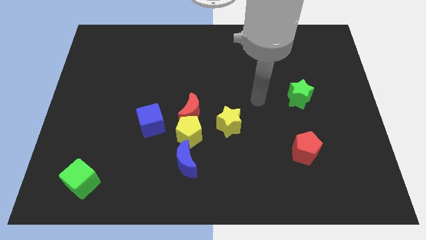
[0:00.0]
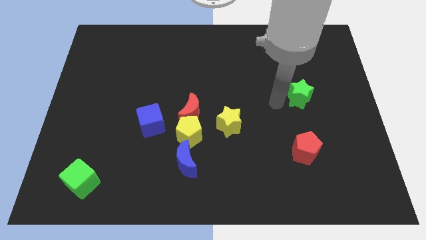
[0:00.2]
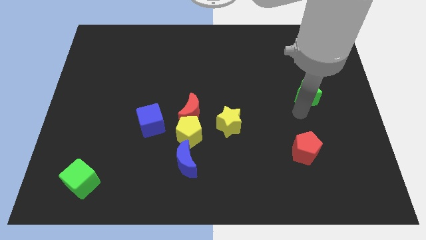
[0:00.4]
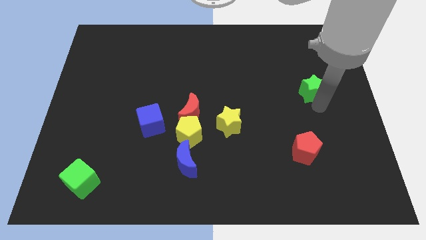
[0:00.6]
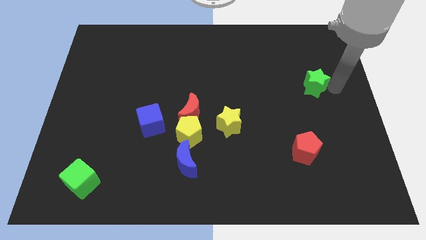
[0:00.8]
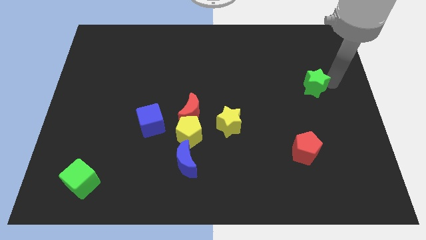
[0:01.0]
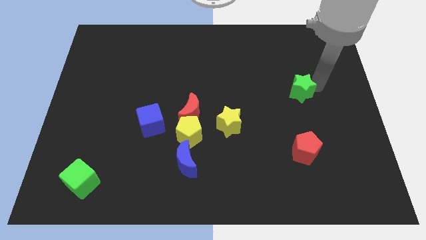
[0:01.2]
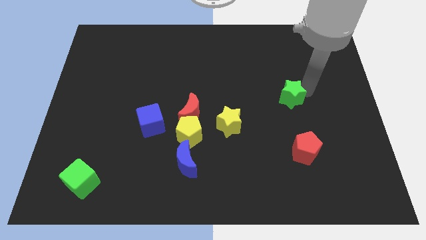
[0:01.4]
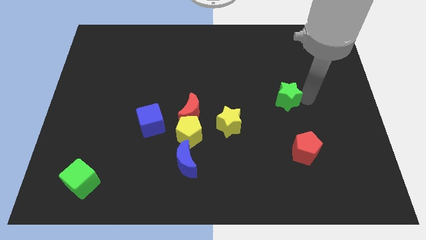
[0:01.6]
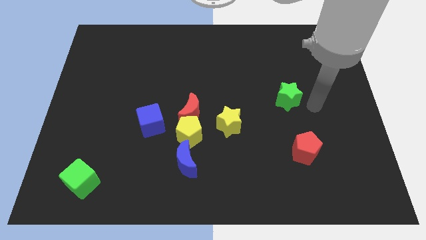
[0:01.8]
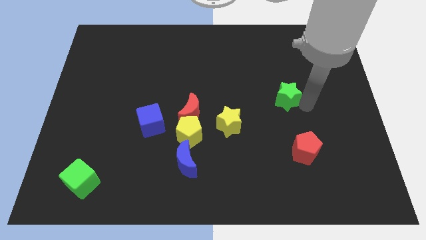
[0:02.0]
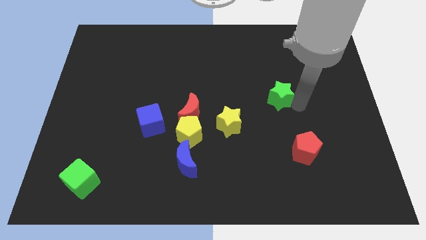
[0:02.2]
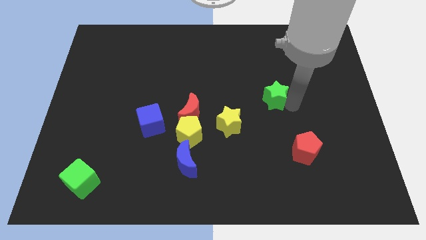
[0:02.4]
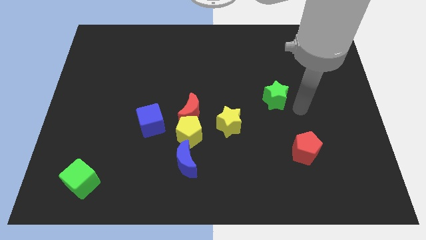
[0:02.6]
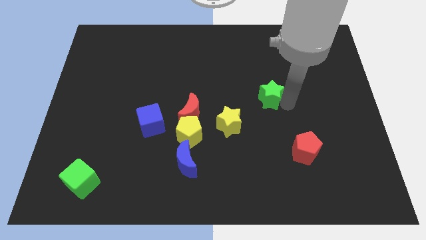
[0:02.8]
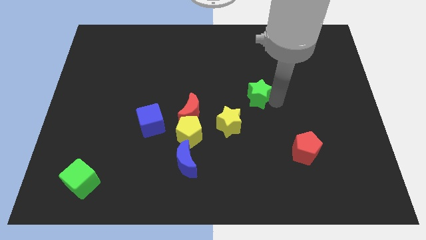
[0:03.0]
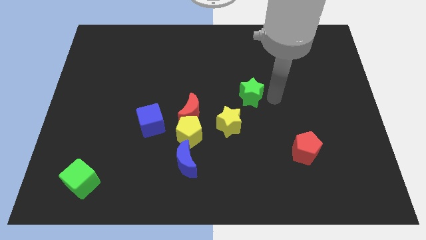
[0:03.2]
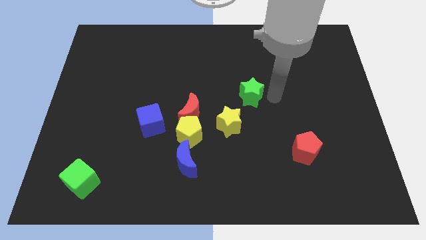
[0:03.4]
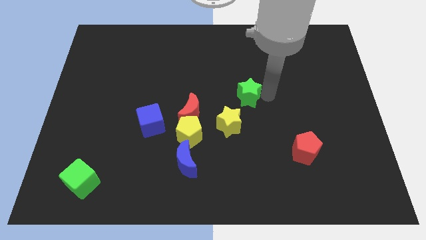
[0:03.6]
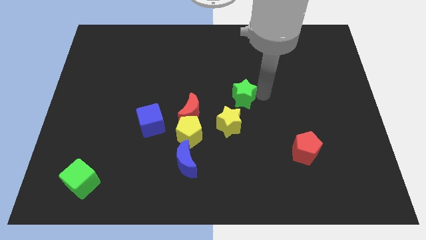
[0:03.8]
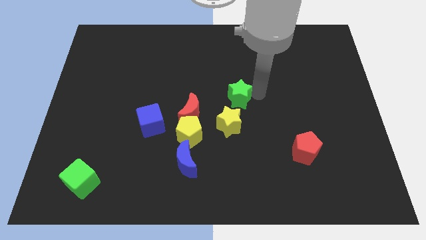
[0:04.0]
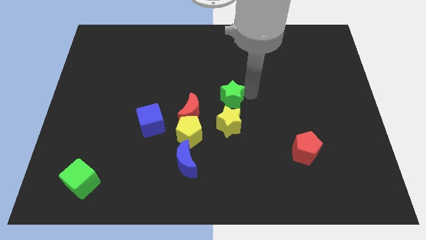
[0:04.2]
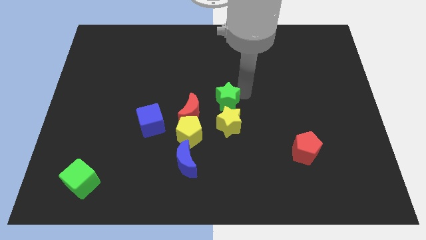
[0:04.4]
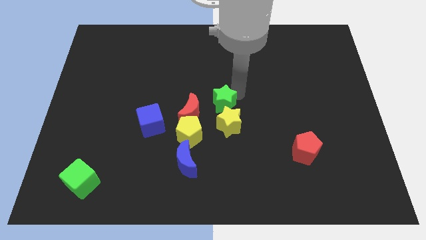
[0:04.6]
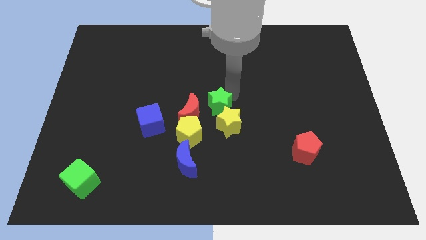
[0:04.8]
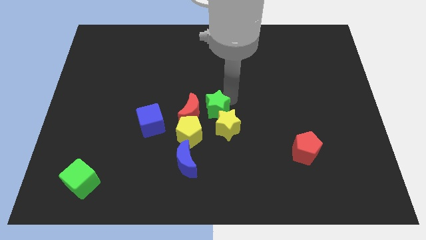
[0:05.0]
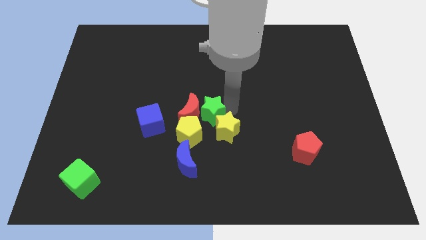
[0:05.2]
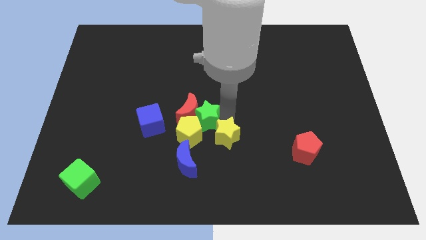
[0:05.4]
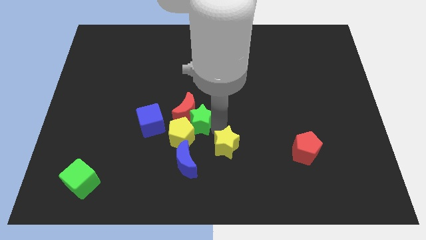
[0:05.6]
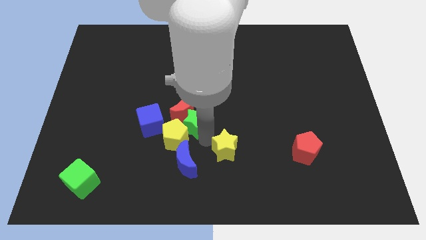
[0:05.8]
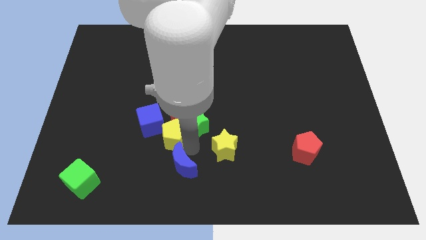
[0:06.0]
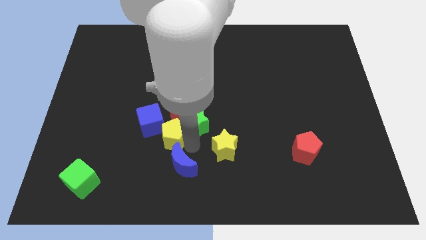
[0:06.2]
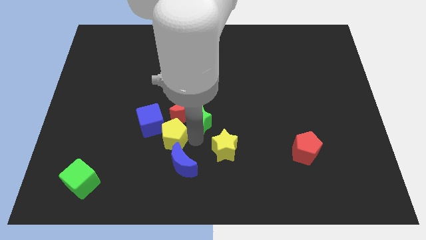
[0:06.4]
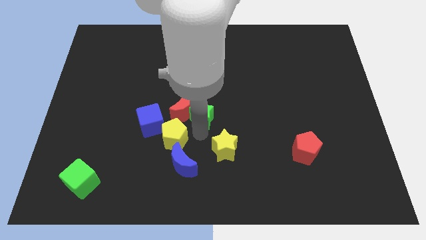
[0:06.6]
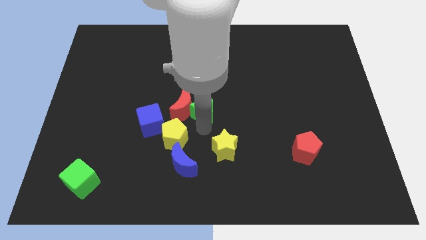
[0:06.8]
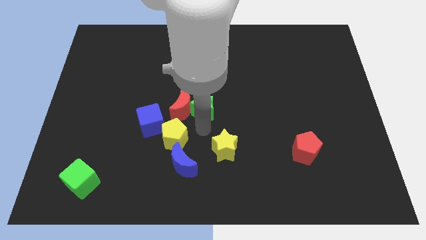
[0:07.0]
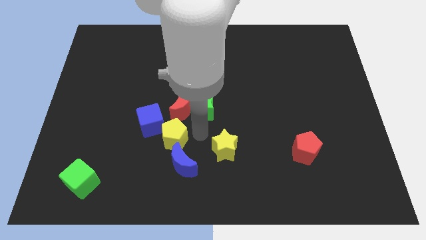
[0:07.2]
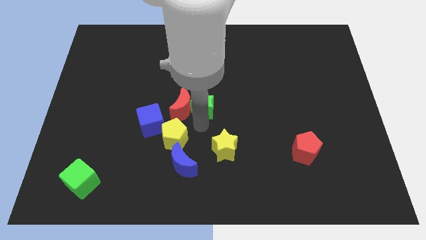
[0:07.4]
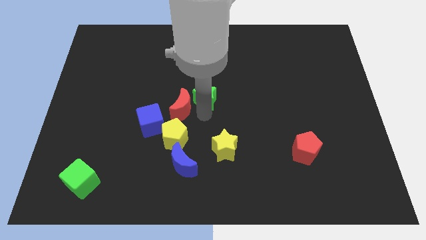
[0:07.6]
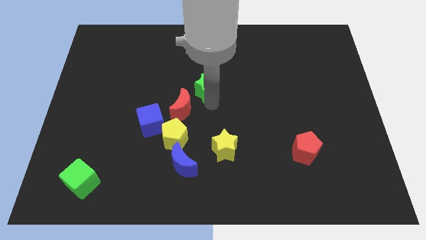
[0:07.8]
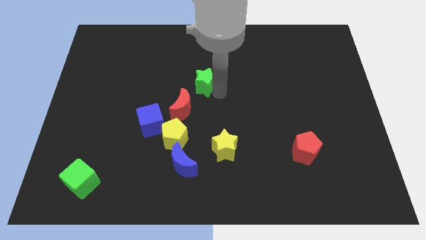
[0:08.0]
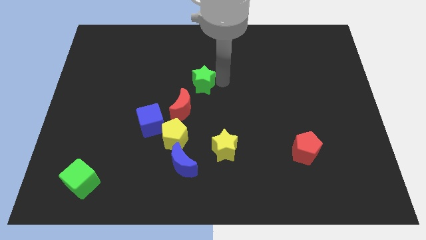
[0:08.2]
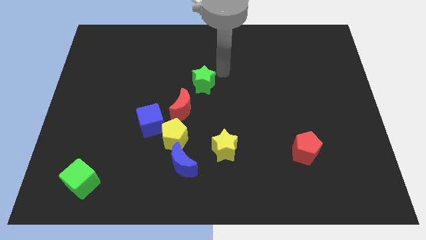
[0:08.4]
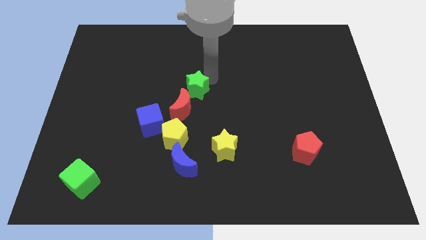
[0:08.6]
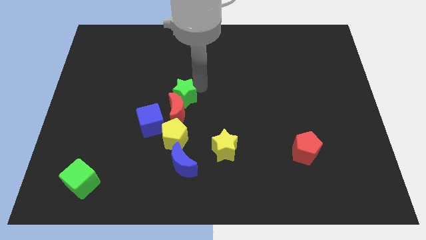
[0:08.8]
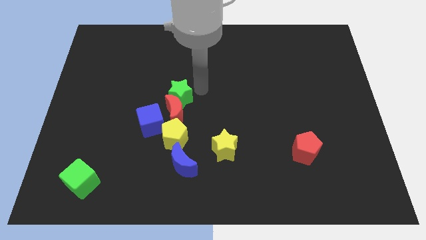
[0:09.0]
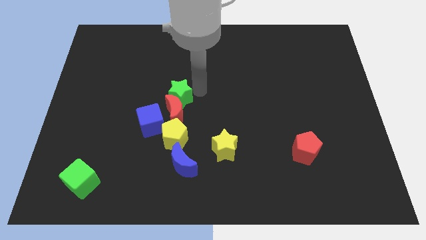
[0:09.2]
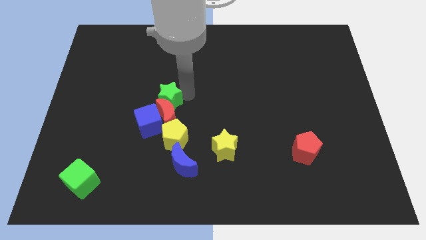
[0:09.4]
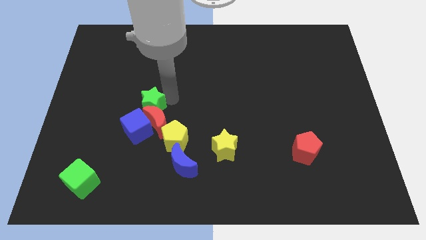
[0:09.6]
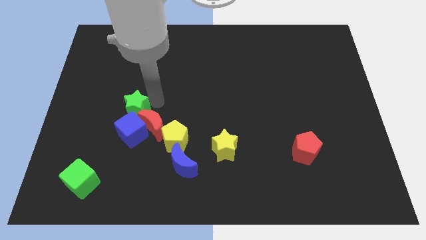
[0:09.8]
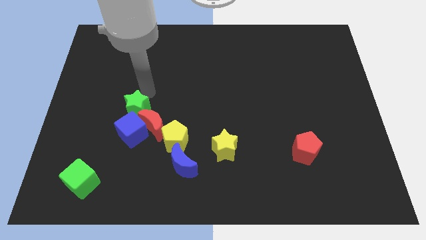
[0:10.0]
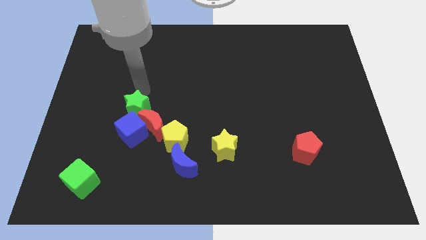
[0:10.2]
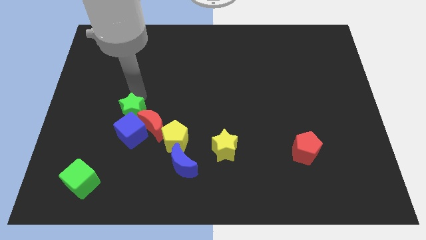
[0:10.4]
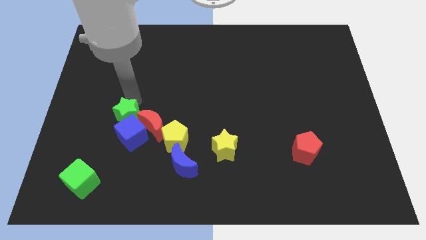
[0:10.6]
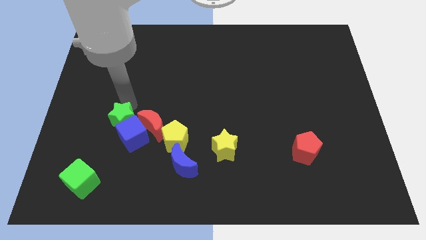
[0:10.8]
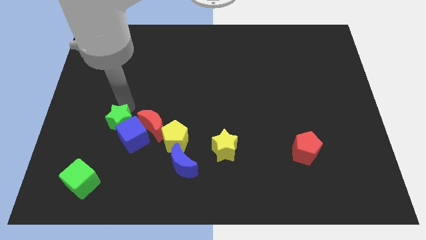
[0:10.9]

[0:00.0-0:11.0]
put the green star just left of the yellow pentagon
